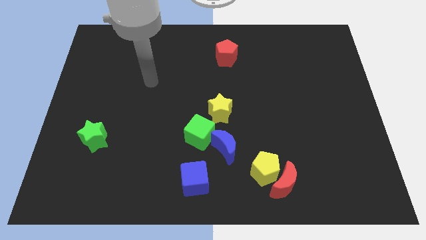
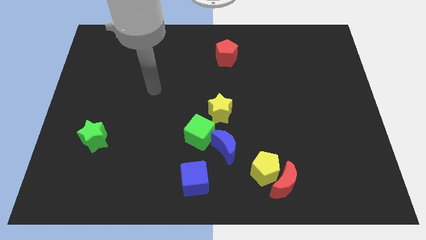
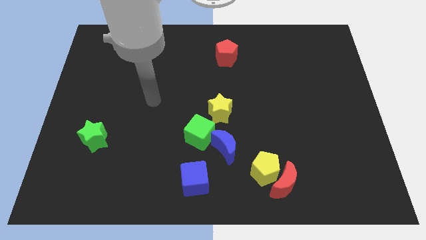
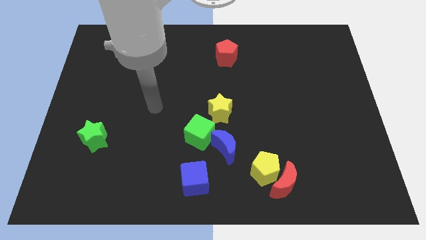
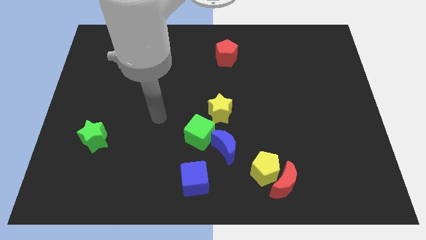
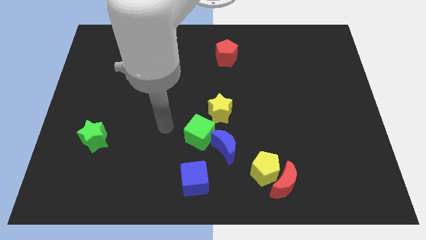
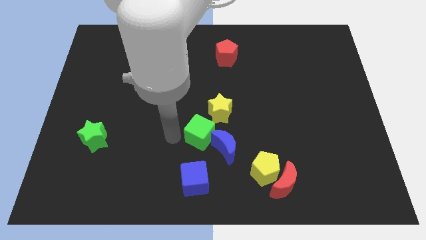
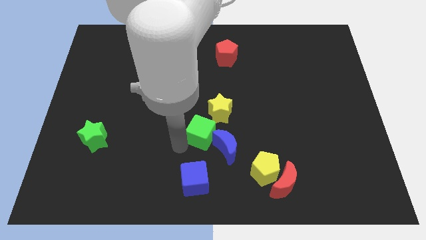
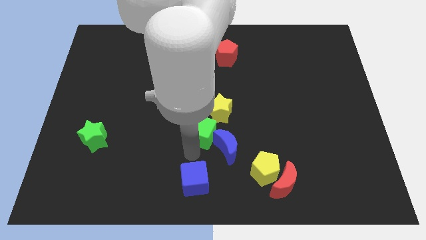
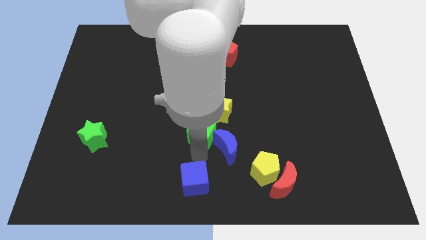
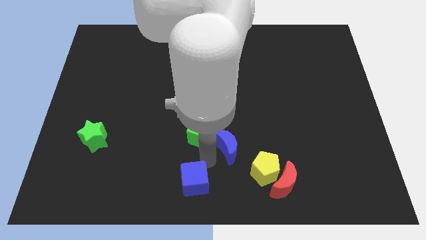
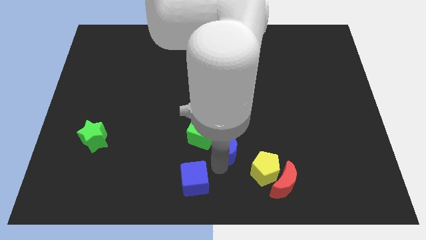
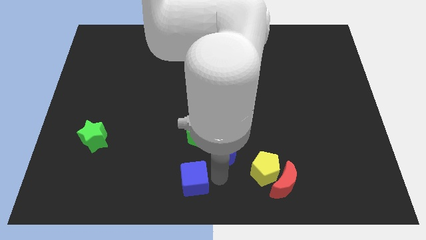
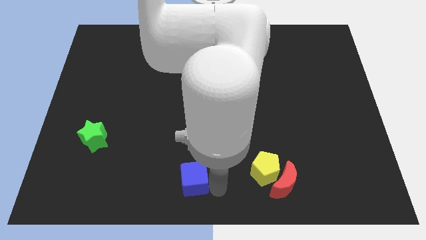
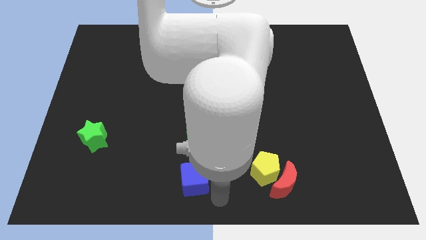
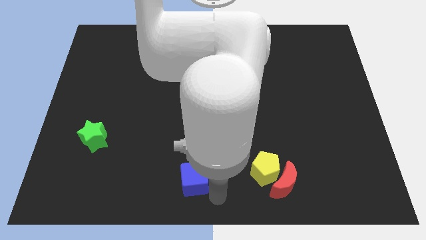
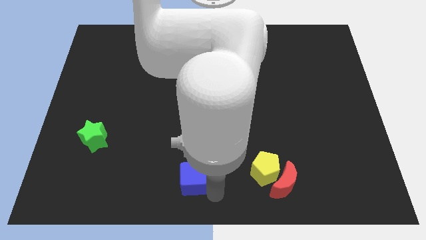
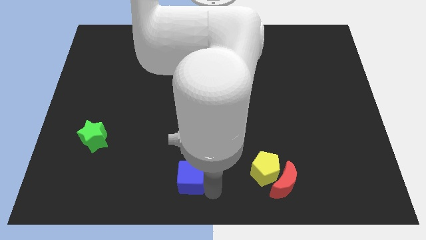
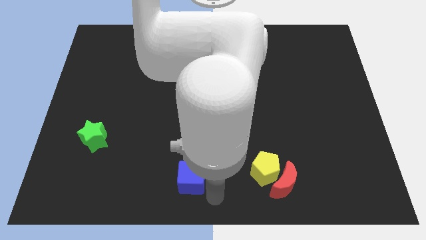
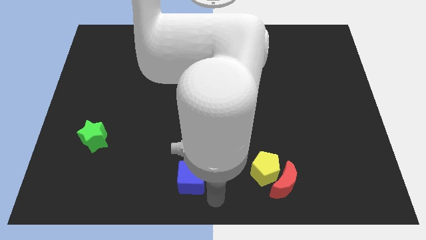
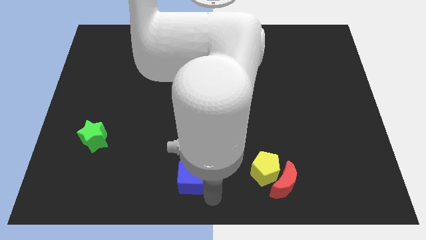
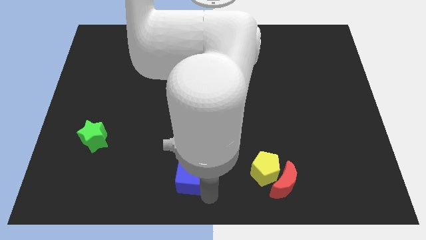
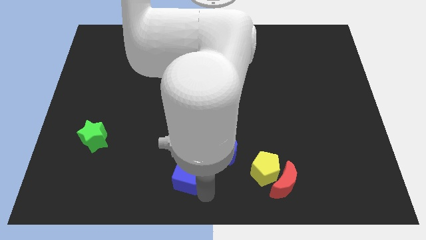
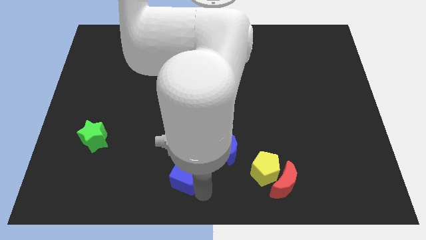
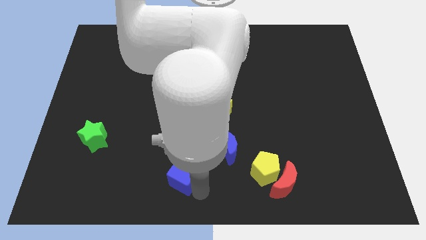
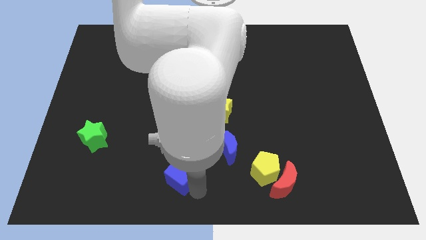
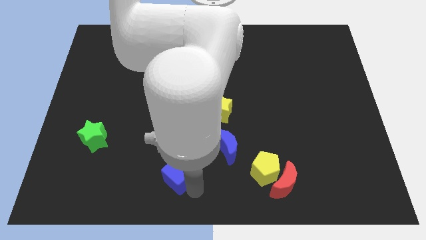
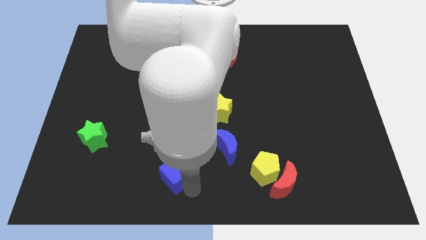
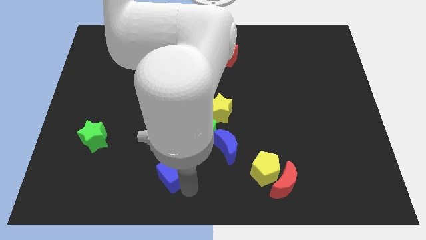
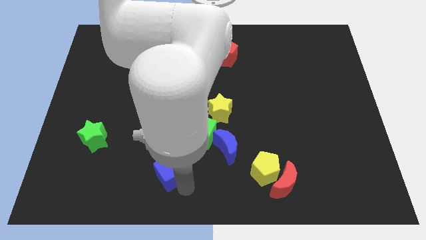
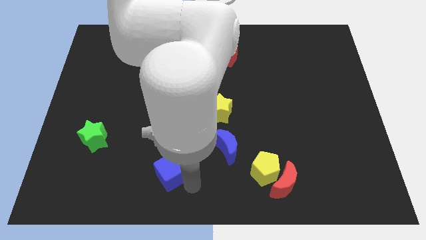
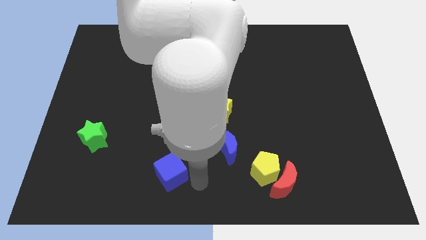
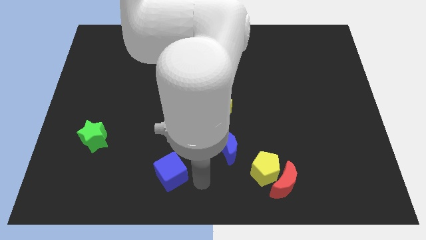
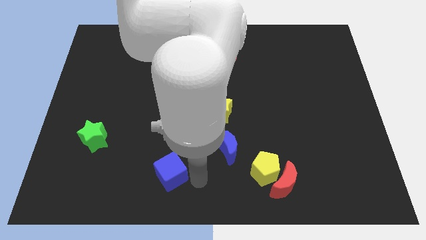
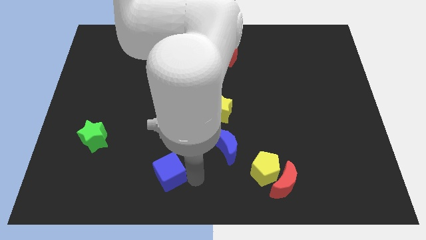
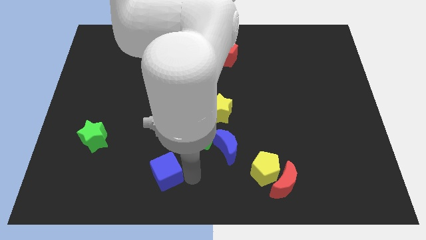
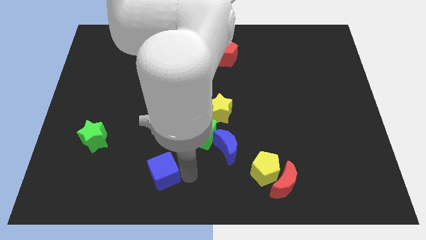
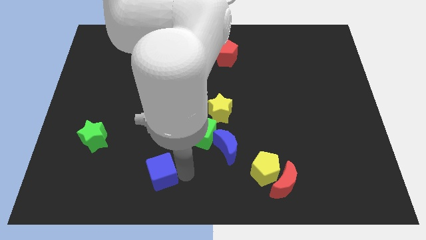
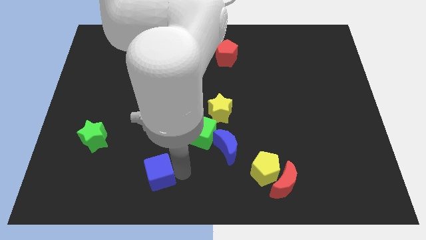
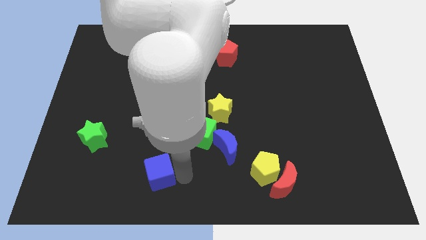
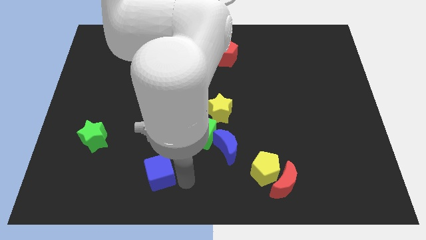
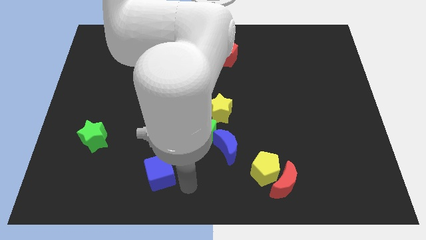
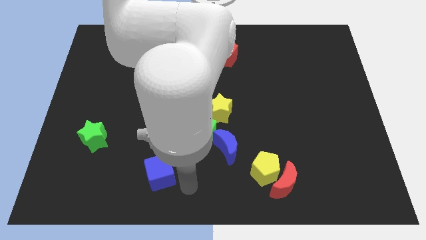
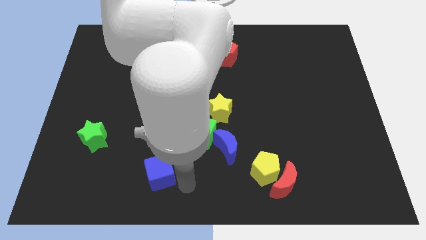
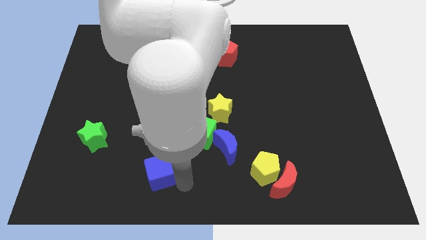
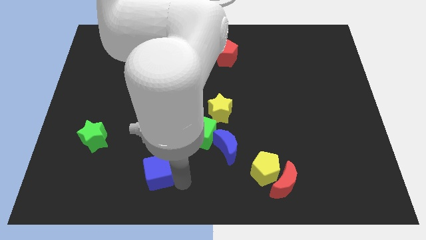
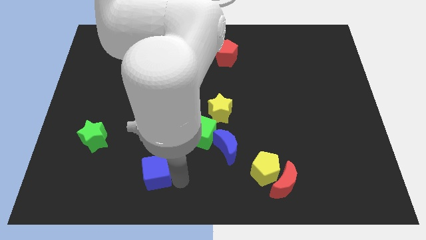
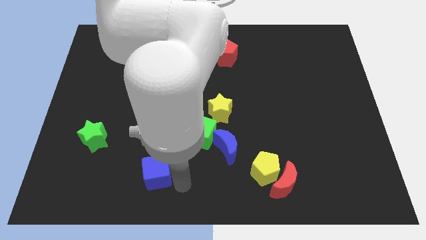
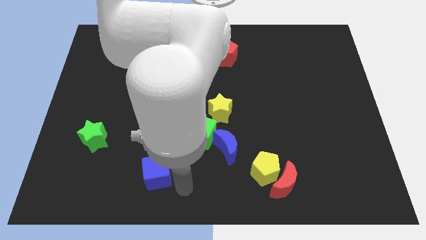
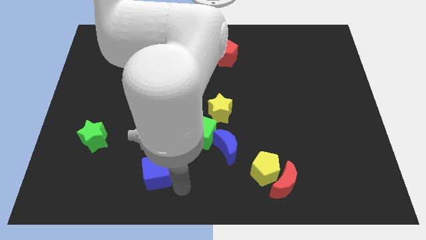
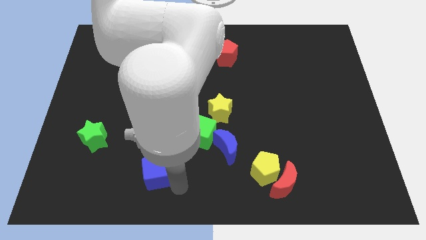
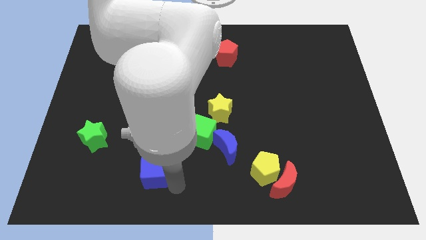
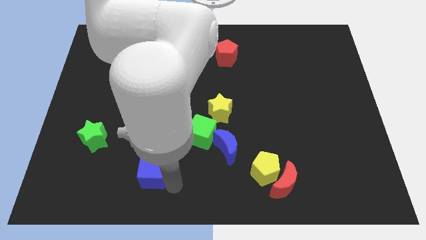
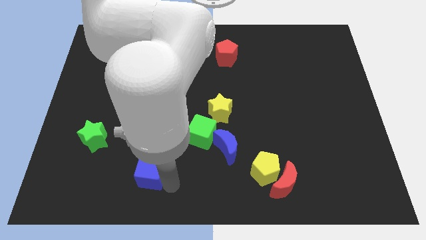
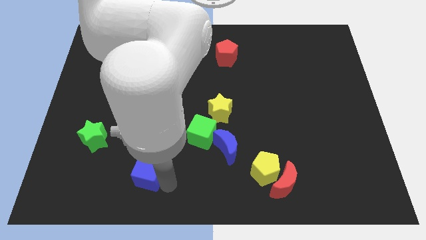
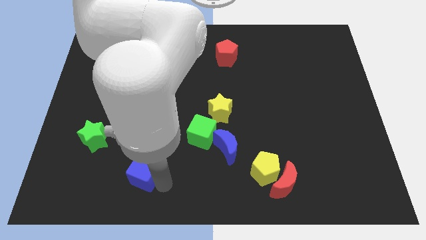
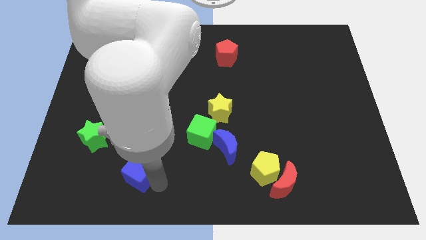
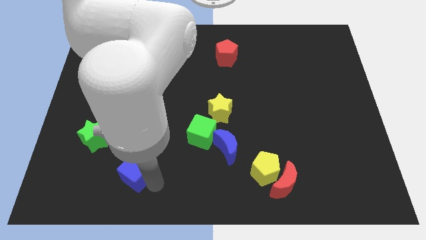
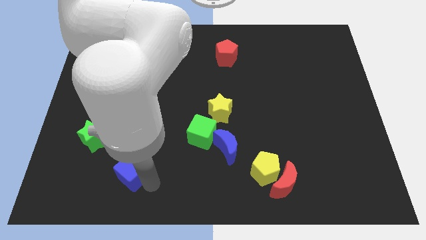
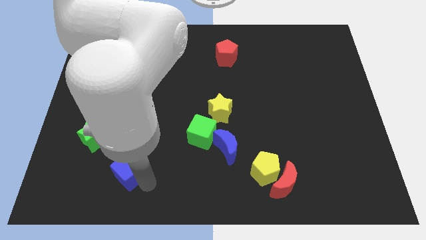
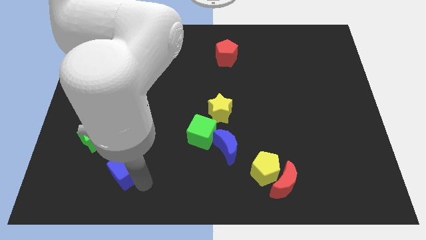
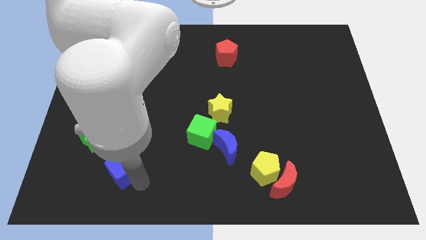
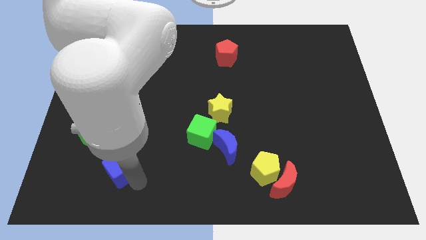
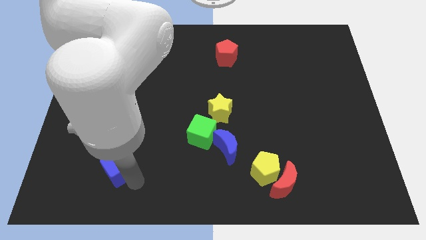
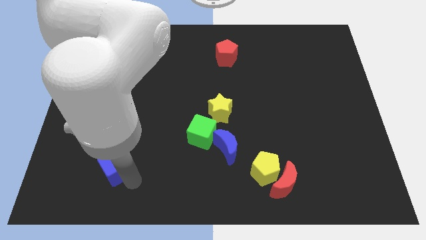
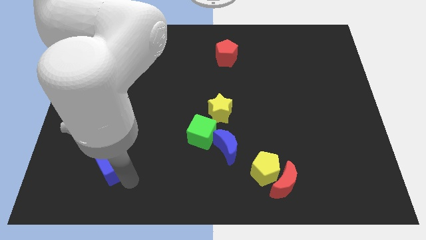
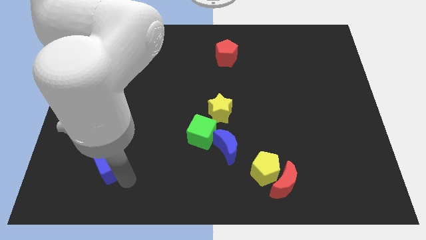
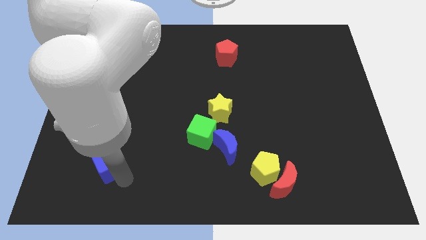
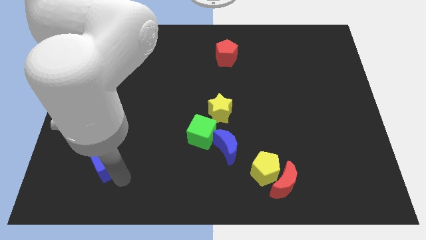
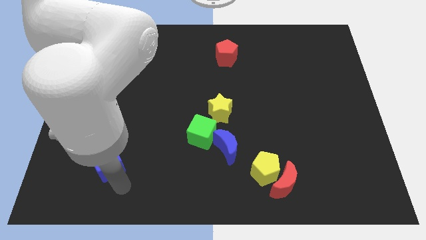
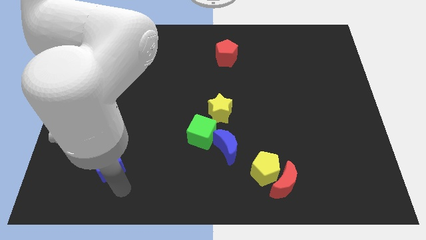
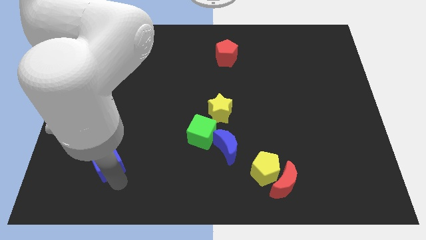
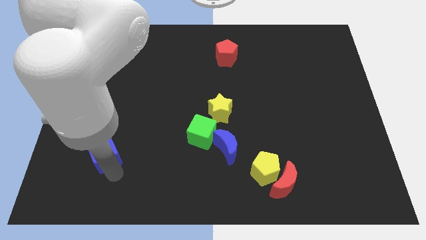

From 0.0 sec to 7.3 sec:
slide the blue cube close to the green star
